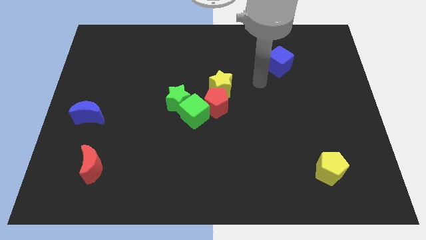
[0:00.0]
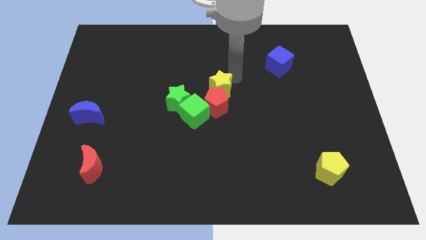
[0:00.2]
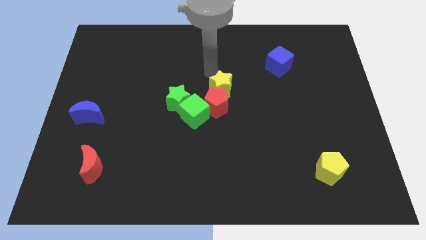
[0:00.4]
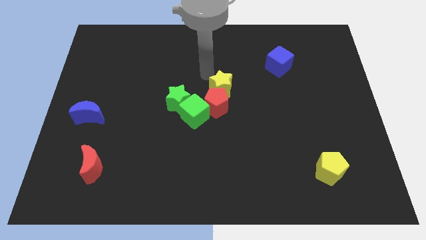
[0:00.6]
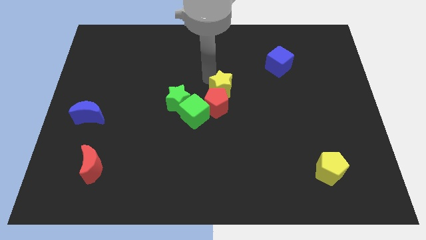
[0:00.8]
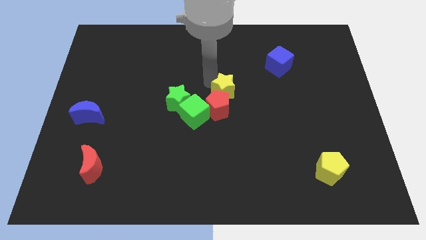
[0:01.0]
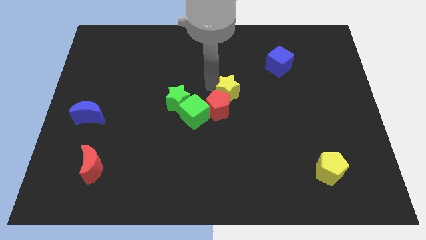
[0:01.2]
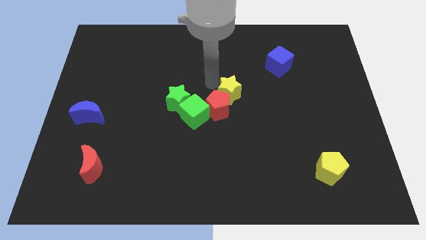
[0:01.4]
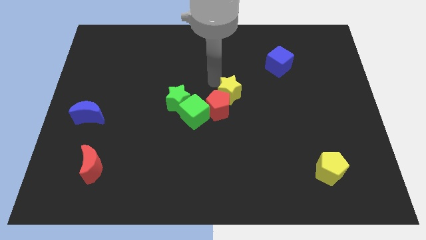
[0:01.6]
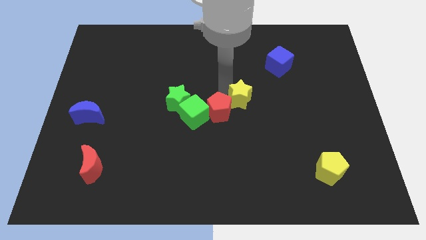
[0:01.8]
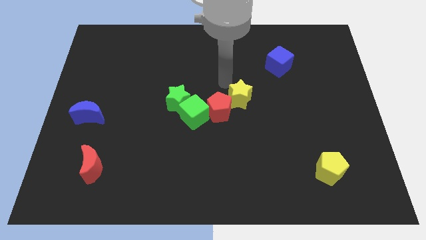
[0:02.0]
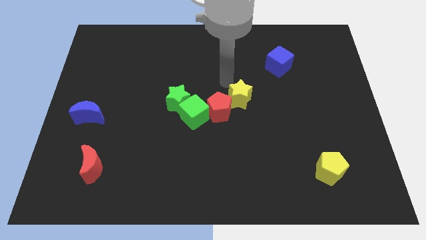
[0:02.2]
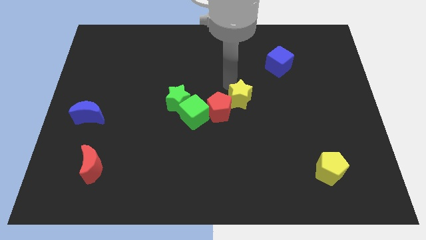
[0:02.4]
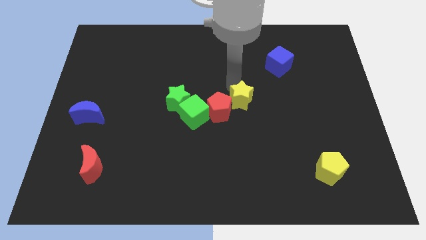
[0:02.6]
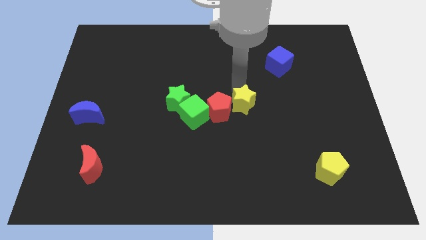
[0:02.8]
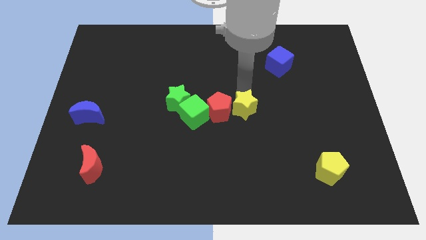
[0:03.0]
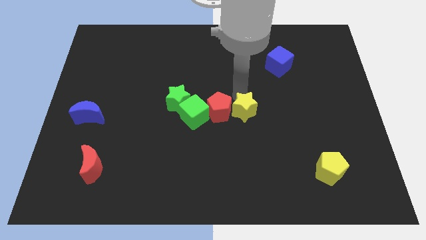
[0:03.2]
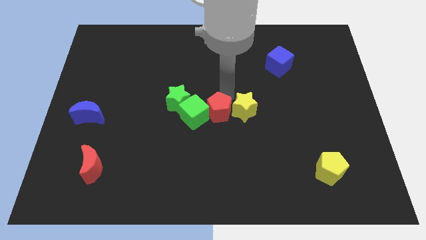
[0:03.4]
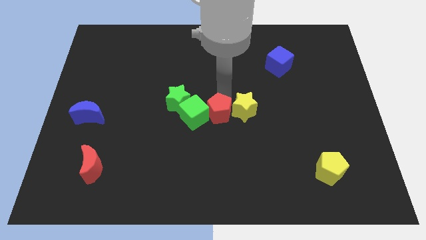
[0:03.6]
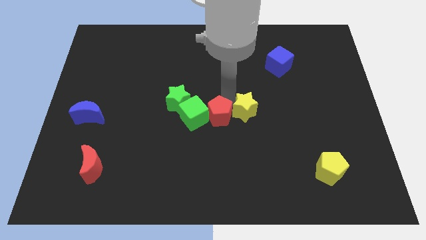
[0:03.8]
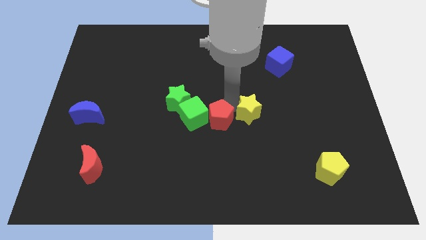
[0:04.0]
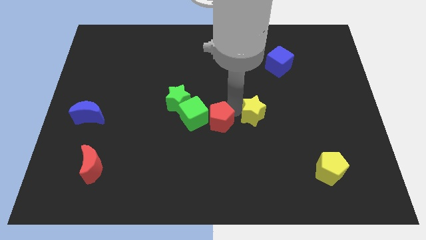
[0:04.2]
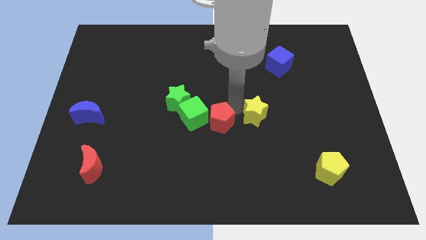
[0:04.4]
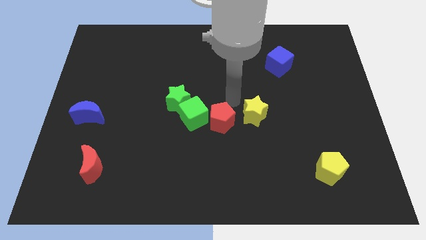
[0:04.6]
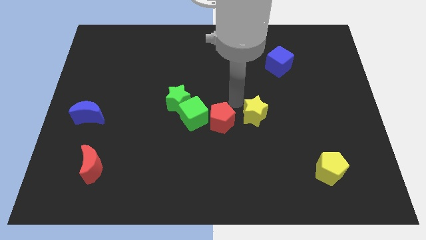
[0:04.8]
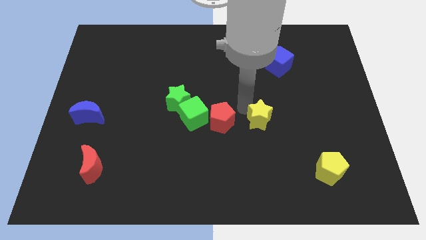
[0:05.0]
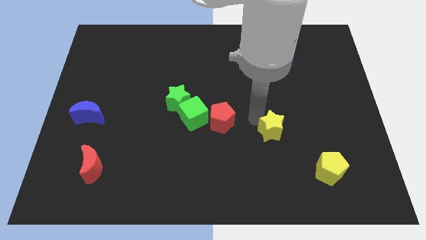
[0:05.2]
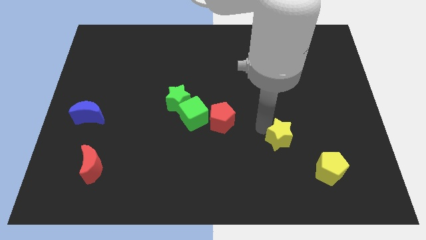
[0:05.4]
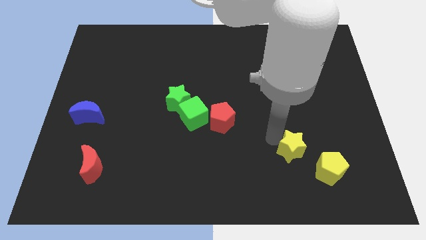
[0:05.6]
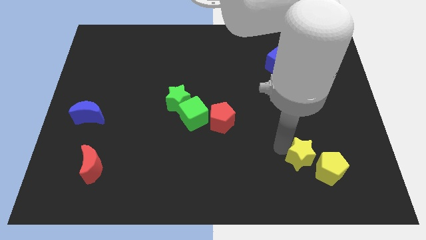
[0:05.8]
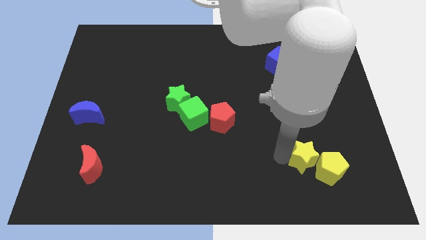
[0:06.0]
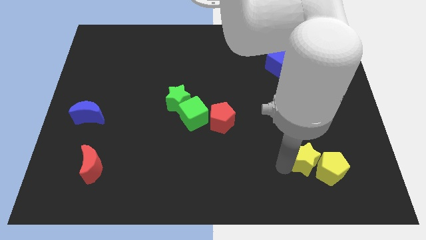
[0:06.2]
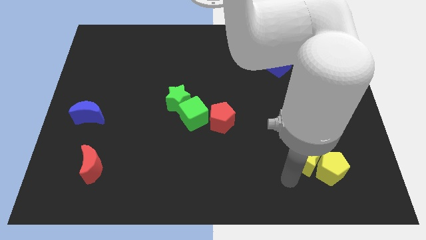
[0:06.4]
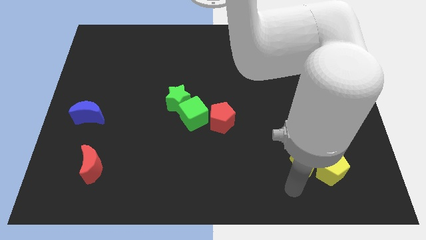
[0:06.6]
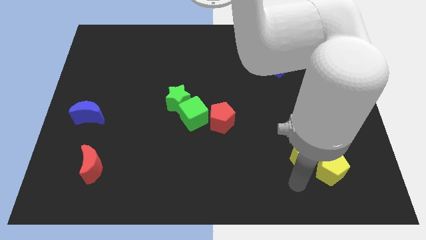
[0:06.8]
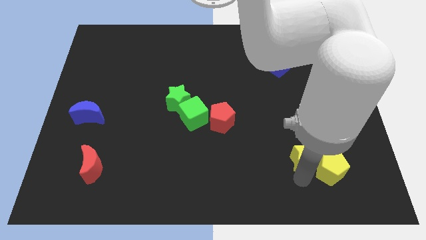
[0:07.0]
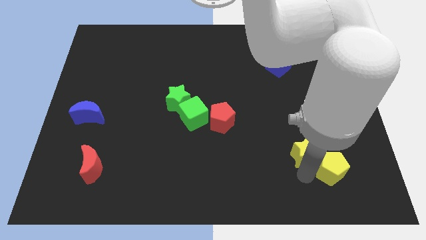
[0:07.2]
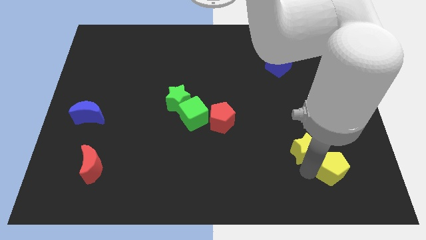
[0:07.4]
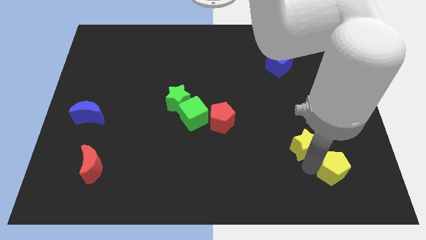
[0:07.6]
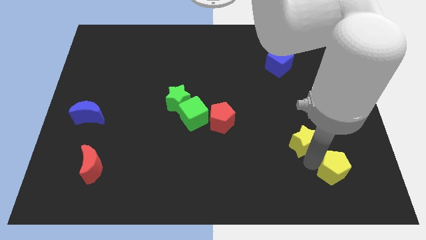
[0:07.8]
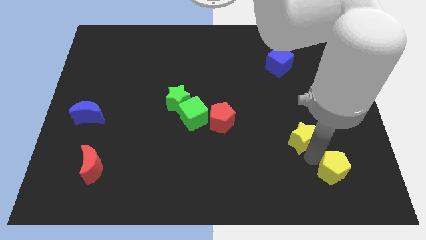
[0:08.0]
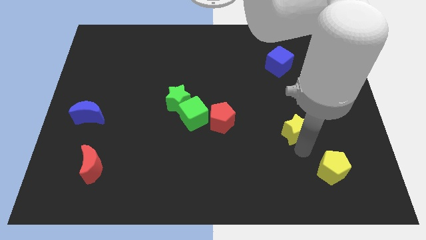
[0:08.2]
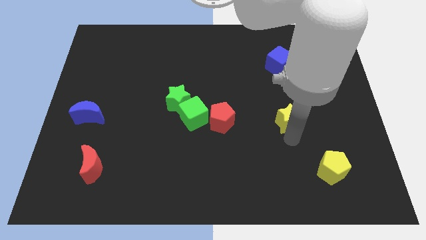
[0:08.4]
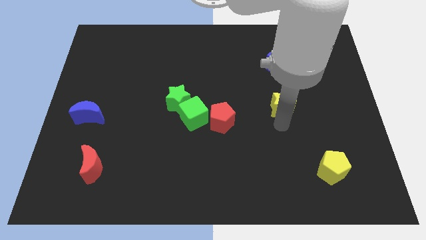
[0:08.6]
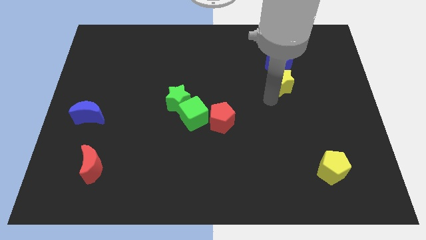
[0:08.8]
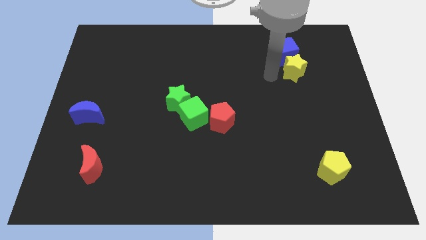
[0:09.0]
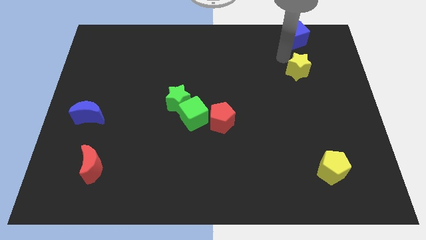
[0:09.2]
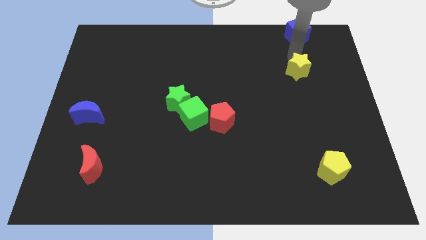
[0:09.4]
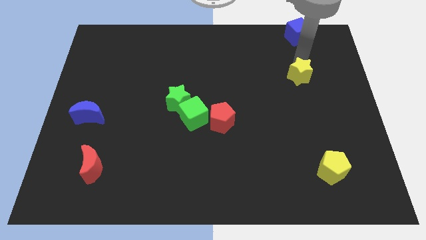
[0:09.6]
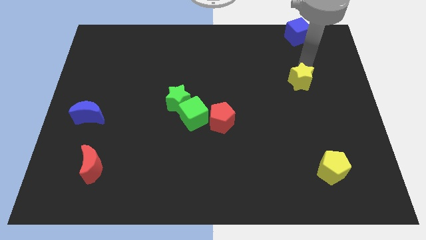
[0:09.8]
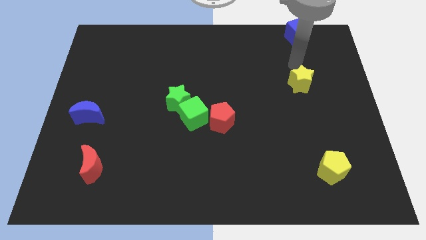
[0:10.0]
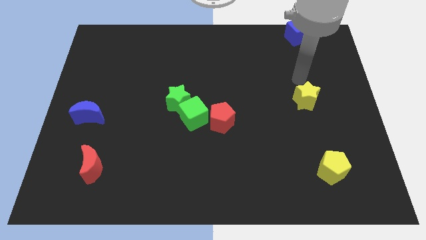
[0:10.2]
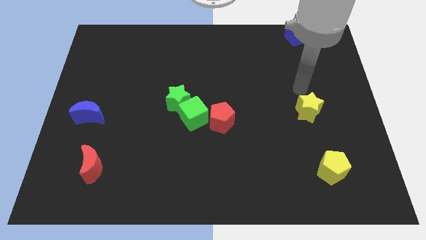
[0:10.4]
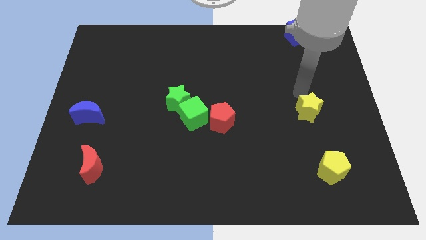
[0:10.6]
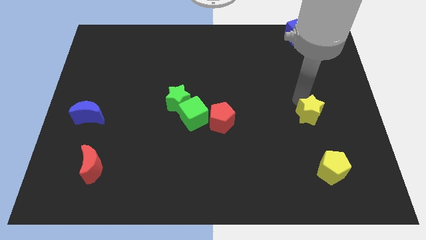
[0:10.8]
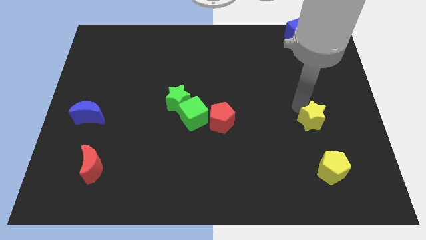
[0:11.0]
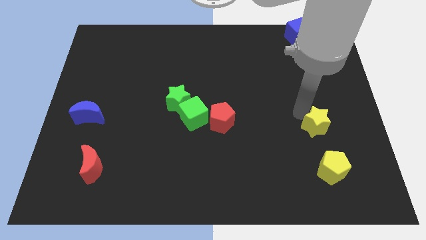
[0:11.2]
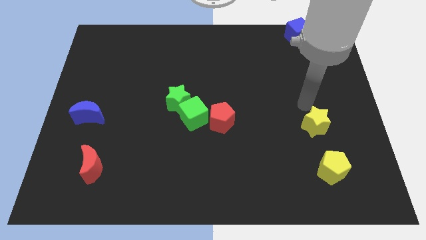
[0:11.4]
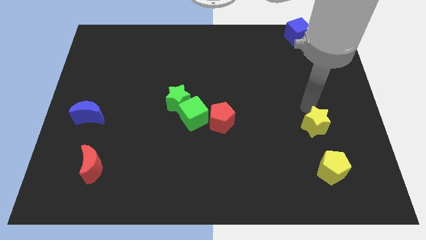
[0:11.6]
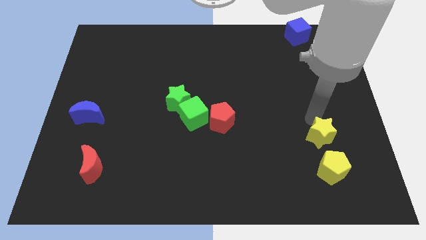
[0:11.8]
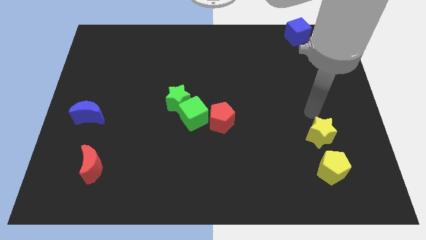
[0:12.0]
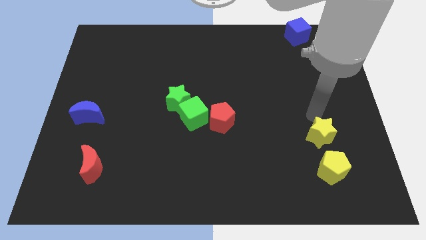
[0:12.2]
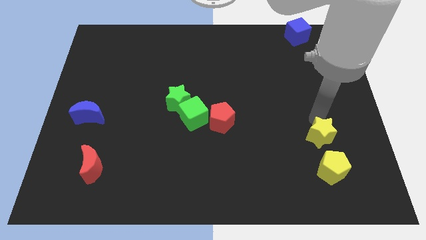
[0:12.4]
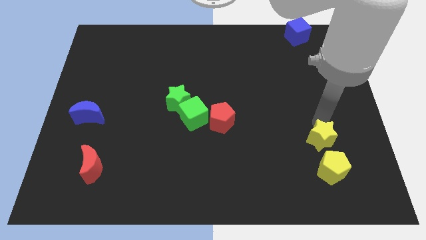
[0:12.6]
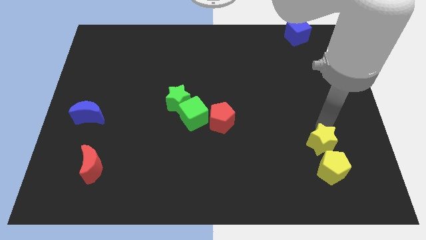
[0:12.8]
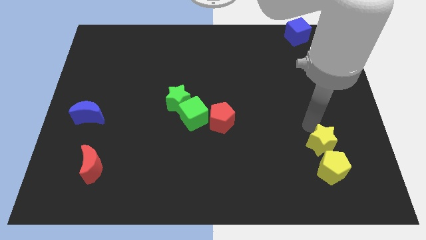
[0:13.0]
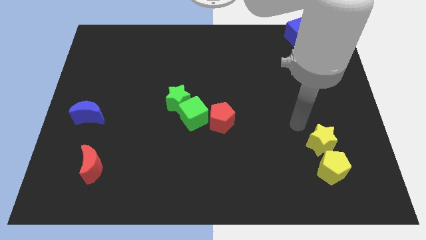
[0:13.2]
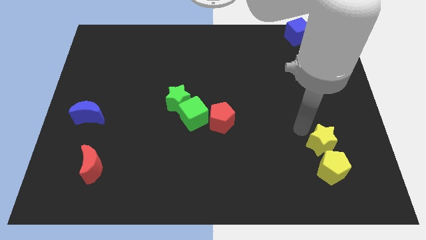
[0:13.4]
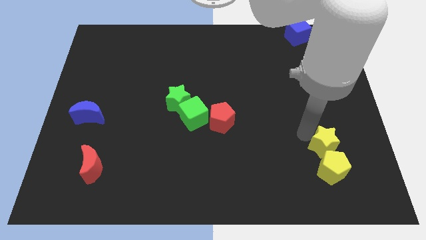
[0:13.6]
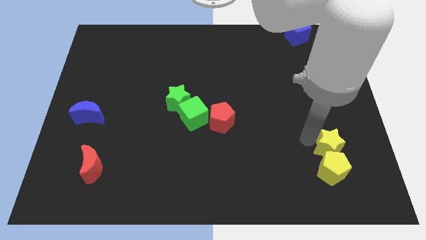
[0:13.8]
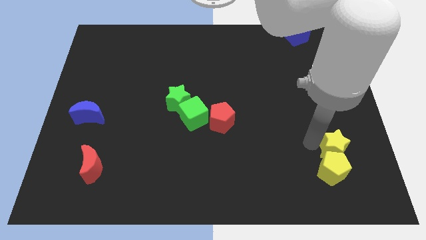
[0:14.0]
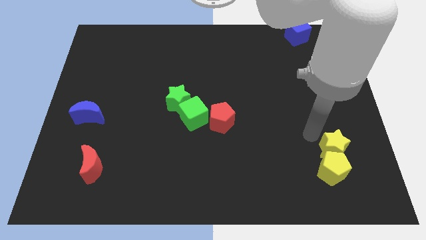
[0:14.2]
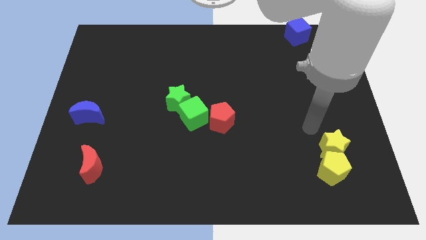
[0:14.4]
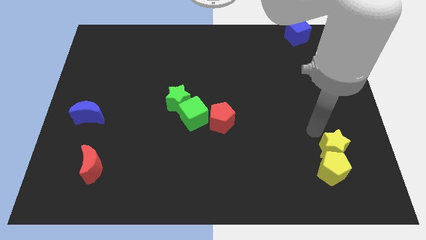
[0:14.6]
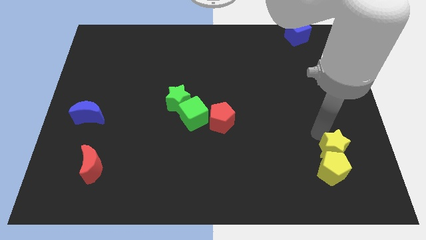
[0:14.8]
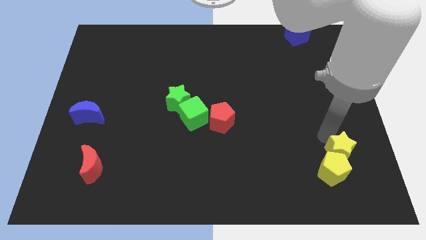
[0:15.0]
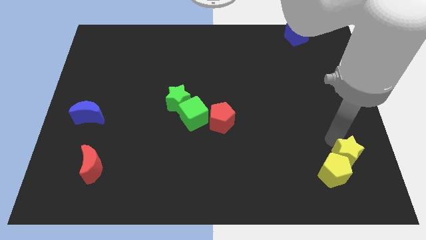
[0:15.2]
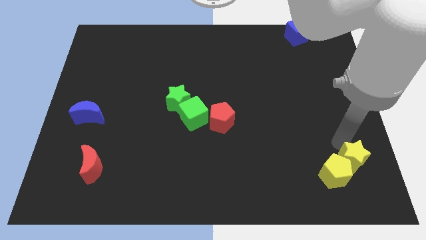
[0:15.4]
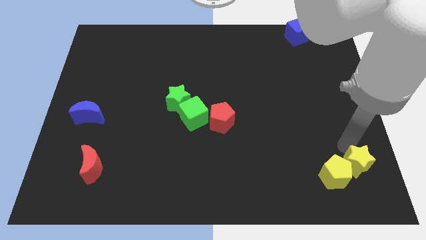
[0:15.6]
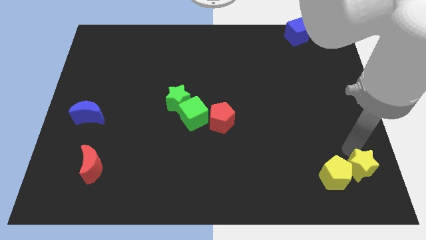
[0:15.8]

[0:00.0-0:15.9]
slide the yellow star to the bottom right
